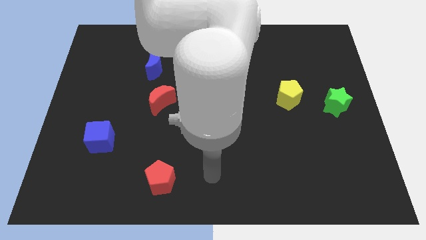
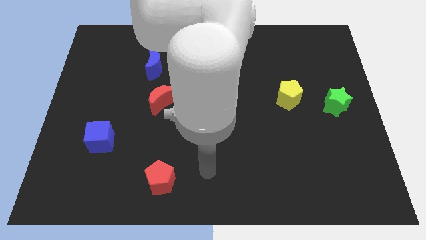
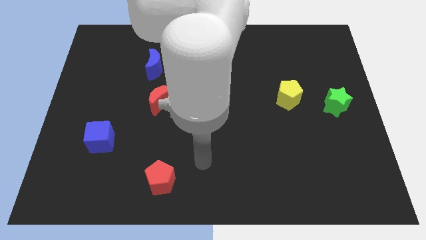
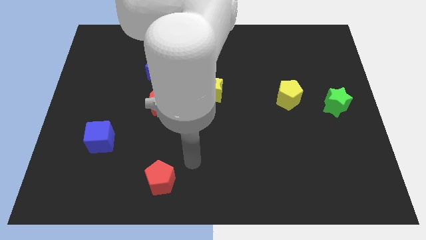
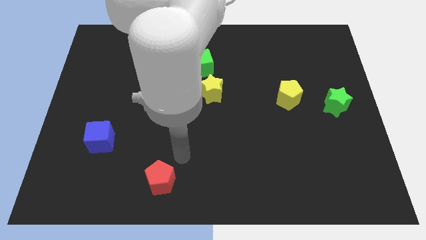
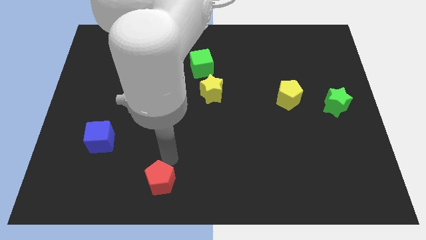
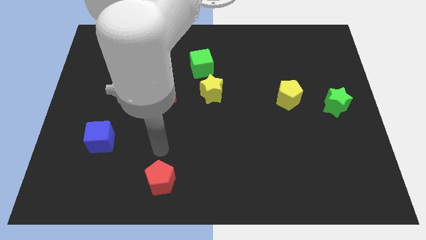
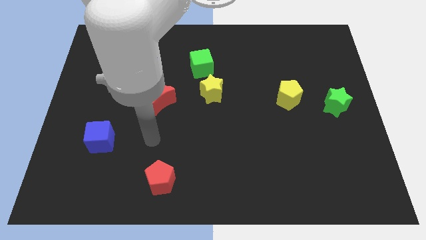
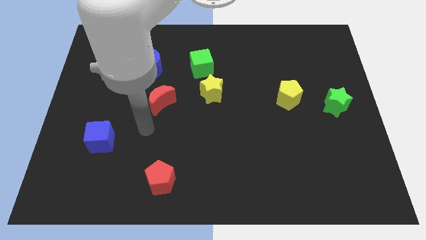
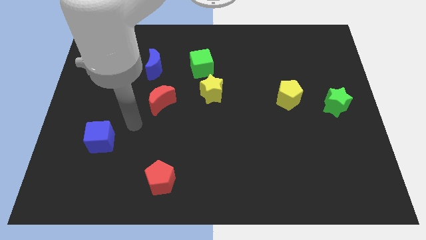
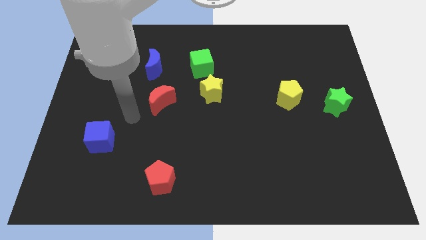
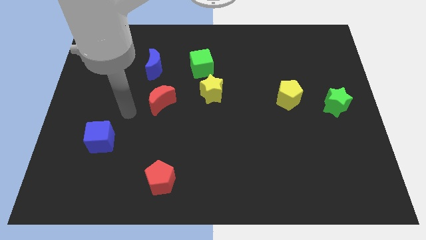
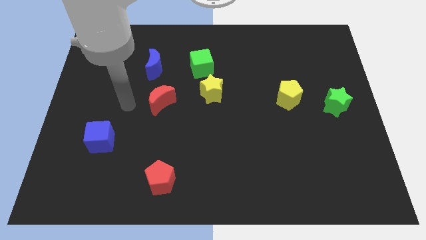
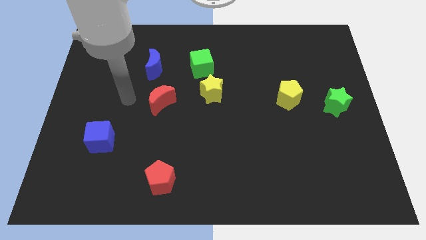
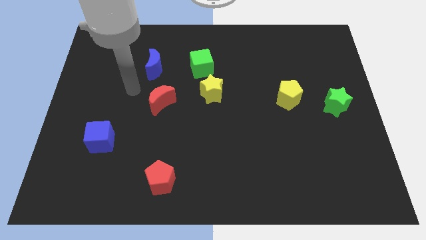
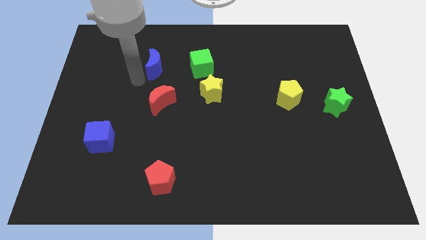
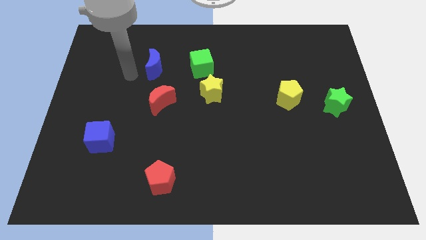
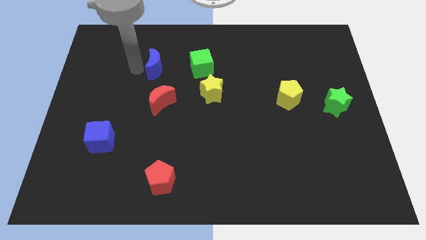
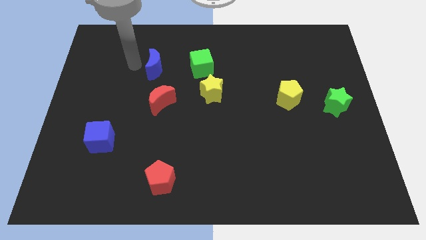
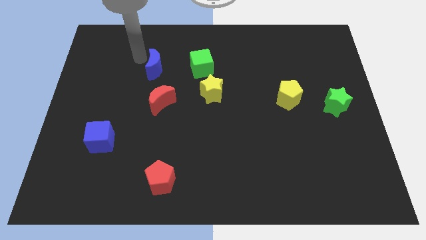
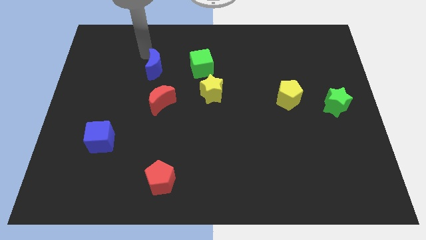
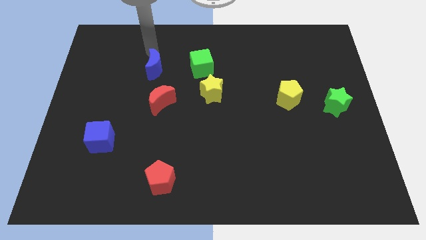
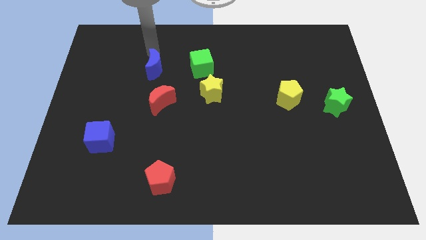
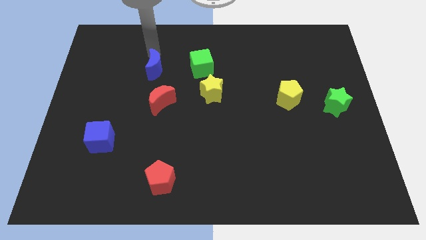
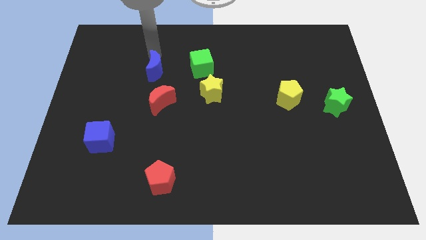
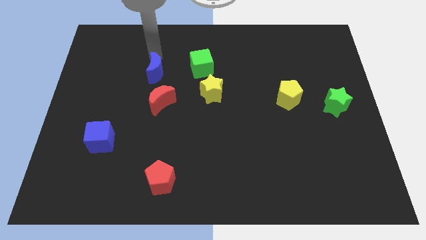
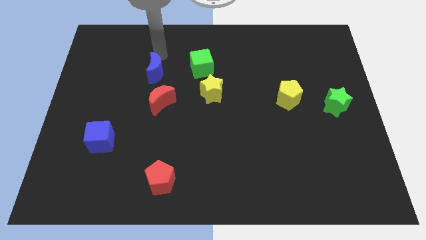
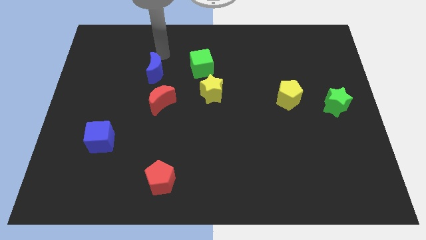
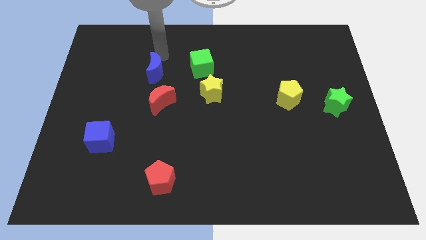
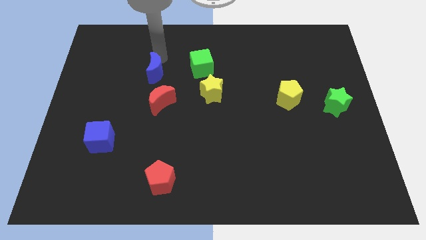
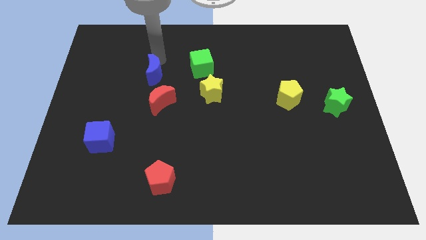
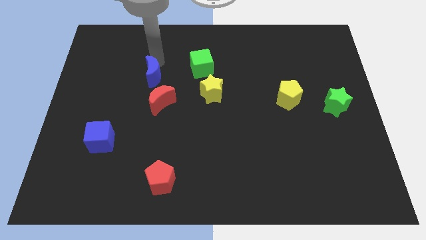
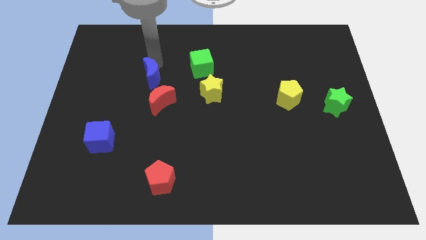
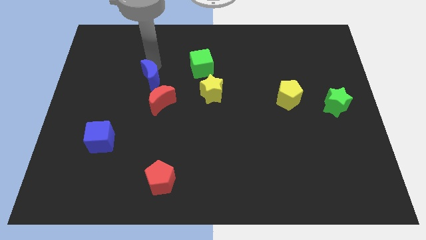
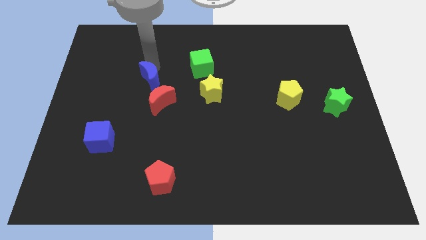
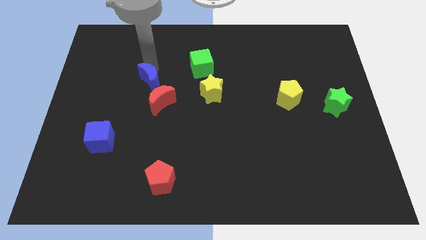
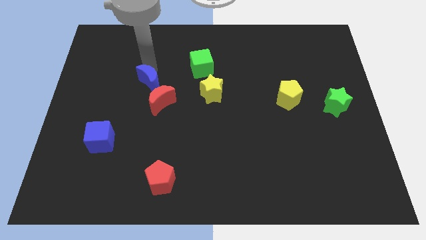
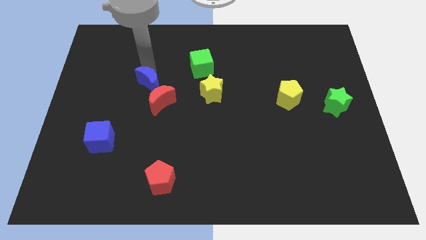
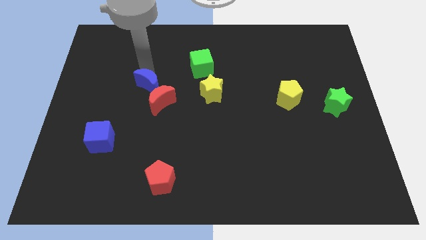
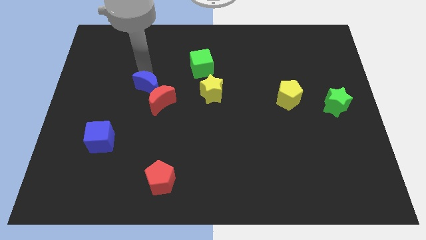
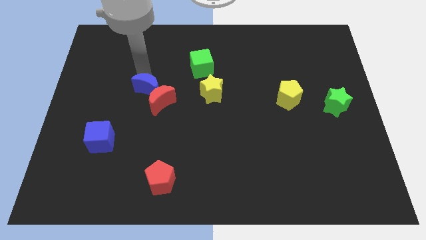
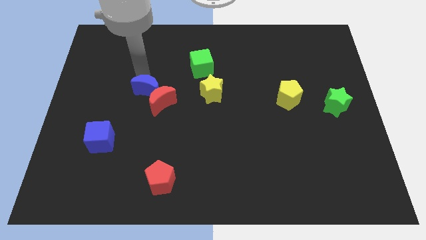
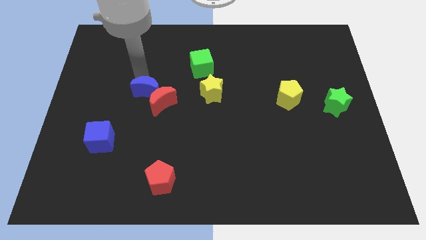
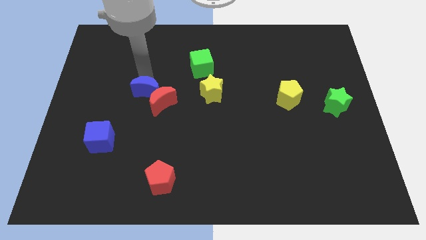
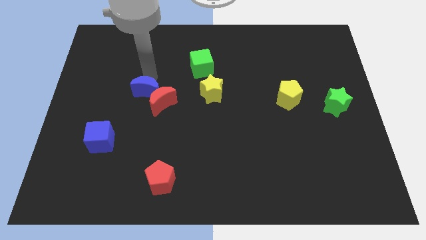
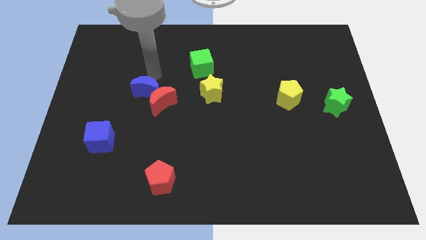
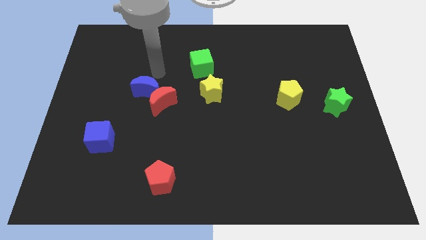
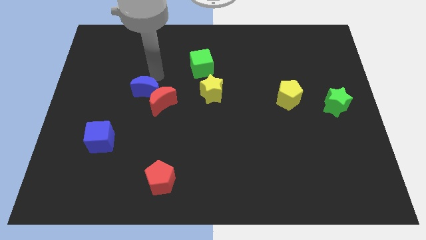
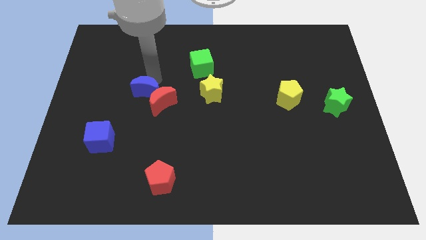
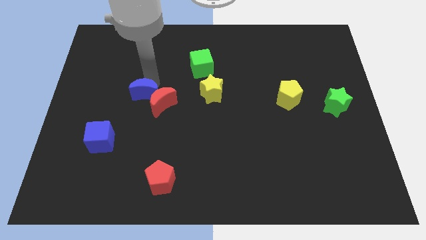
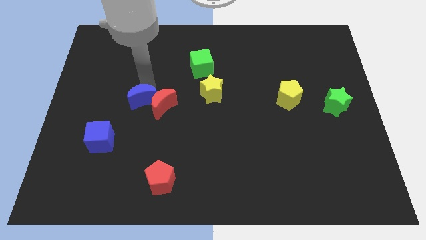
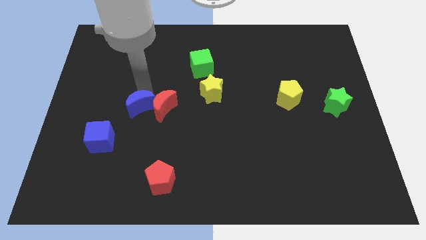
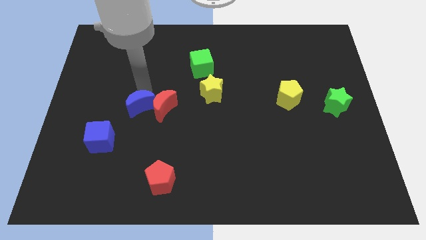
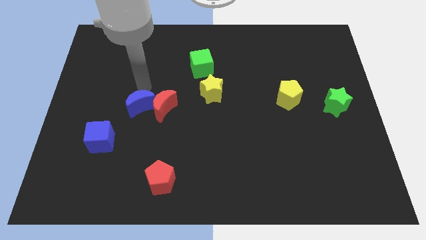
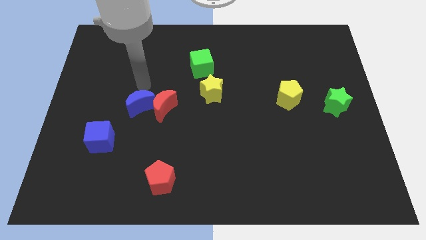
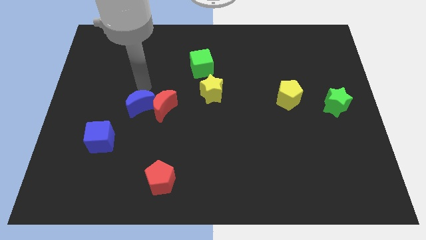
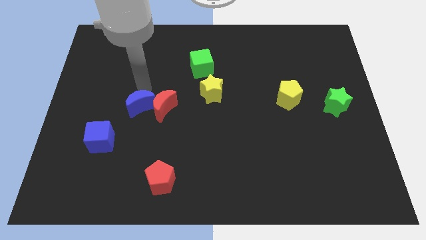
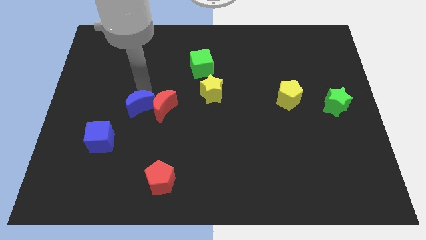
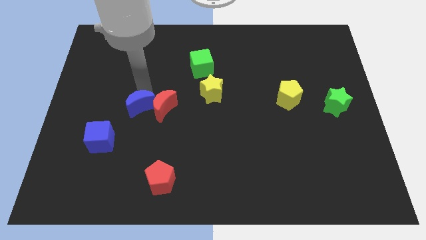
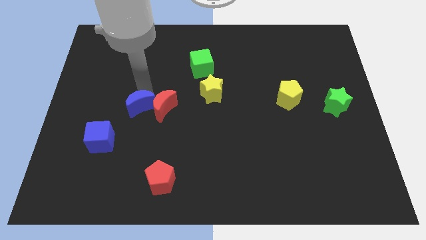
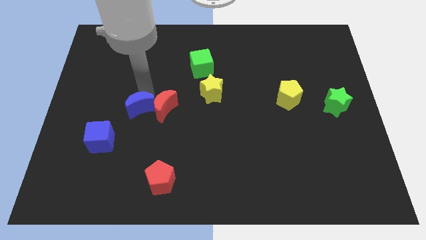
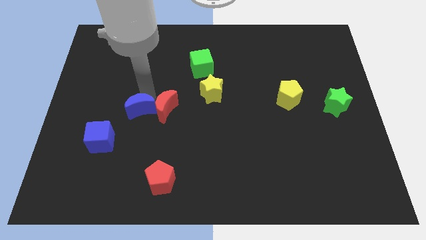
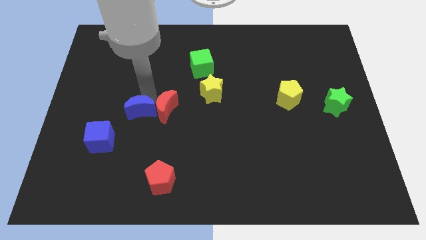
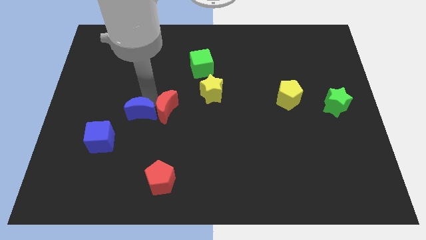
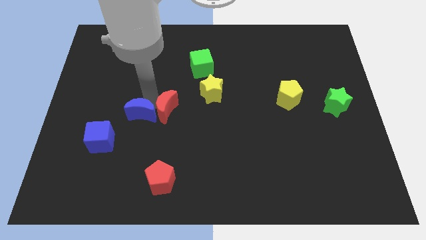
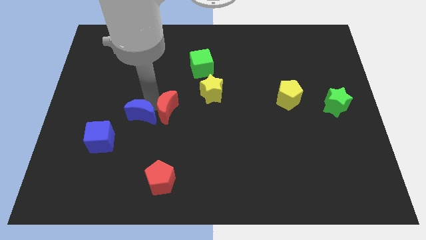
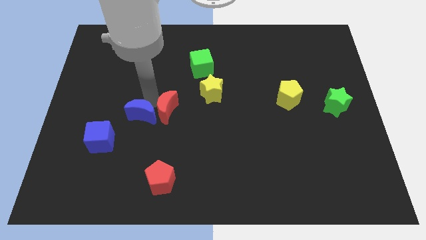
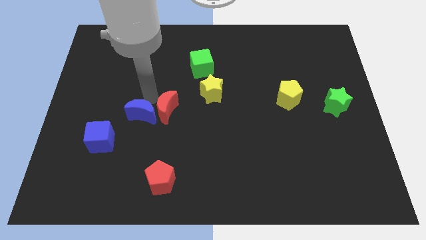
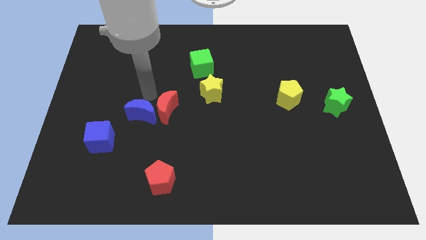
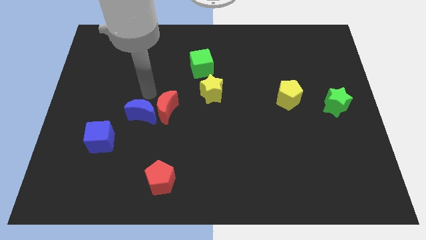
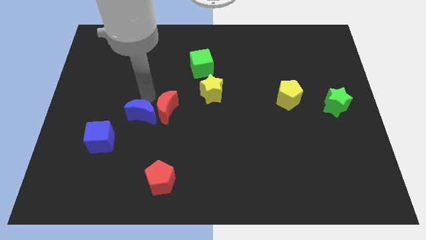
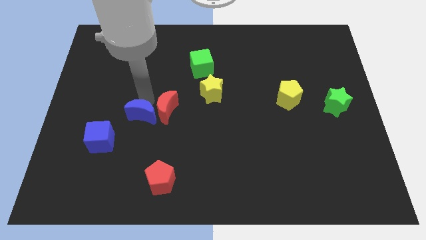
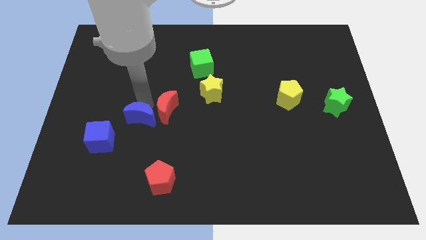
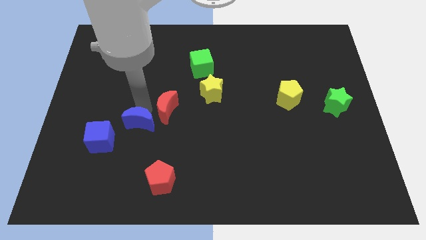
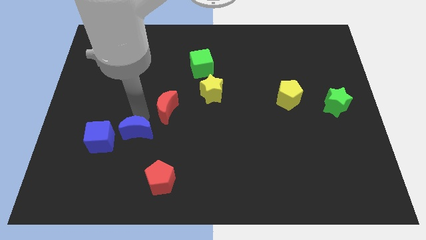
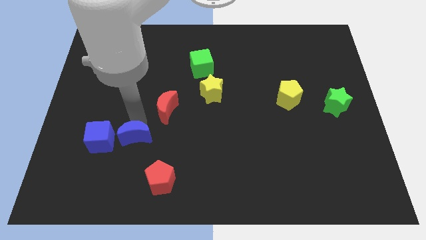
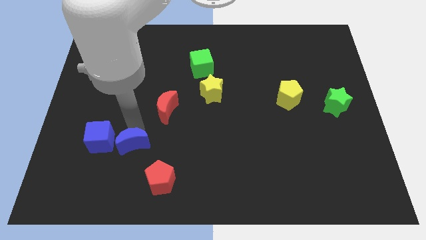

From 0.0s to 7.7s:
put the blue moon diagonally up and to the left of the red pentagon

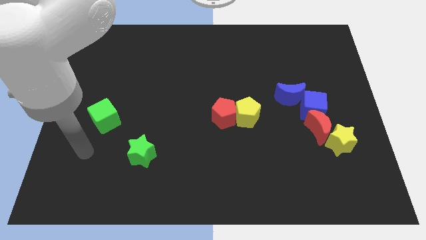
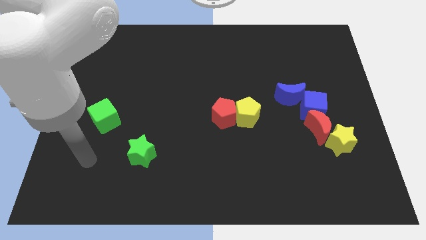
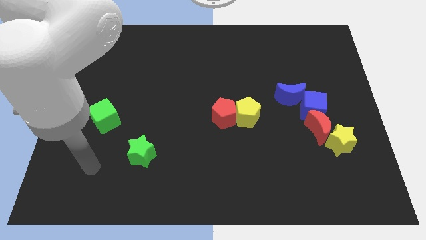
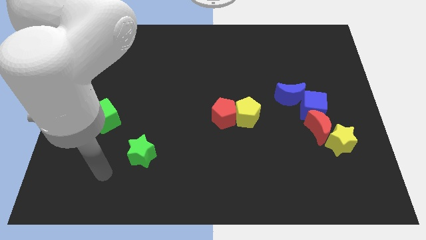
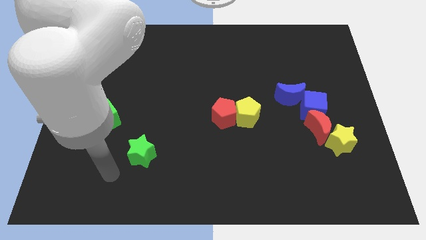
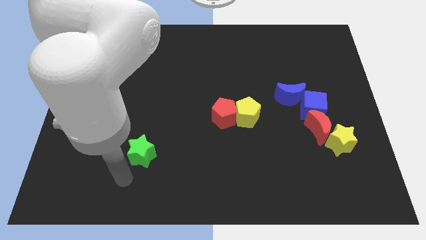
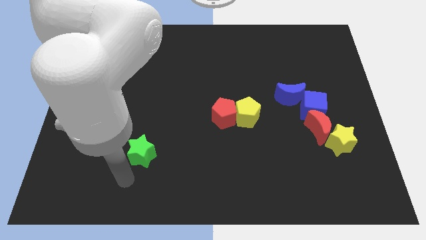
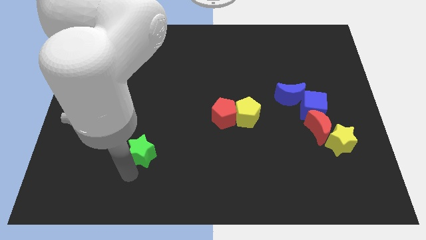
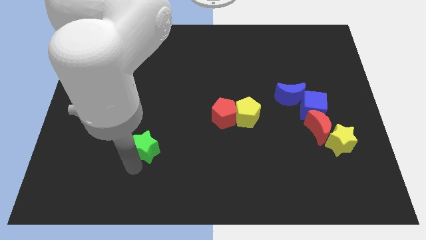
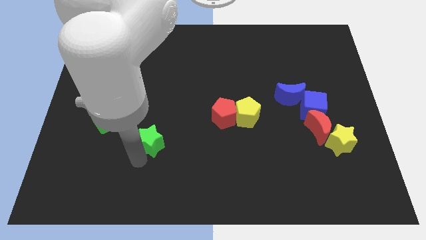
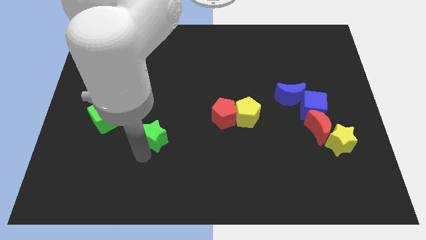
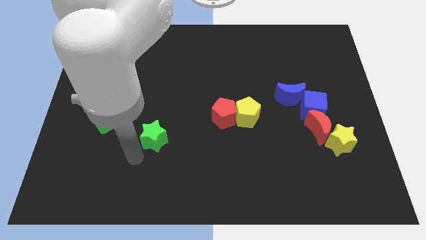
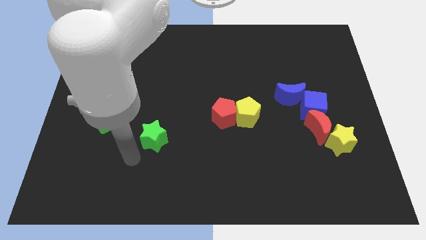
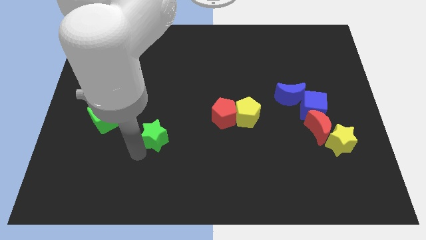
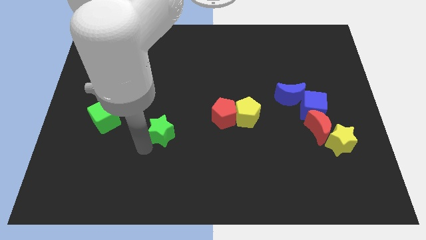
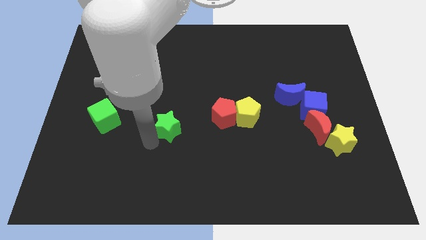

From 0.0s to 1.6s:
put the green star left of the red pentagon
